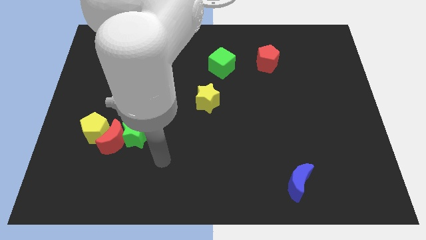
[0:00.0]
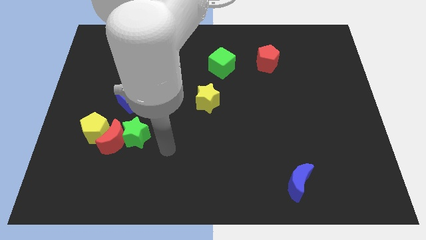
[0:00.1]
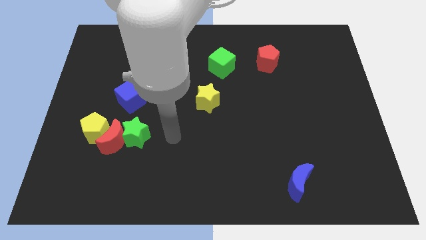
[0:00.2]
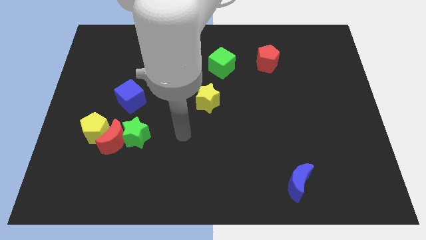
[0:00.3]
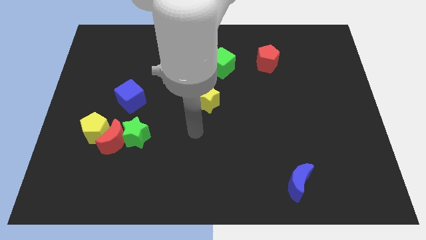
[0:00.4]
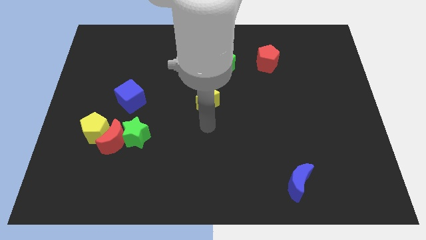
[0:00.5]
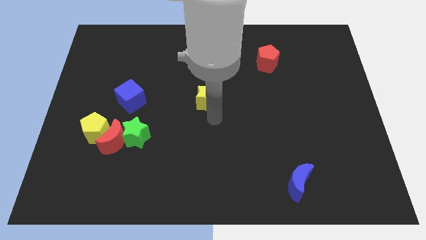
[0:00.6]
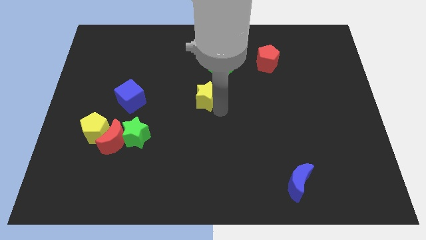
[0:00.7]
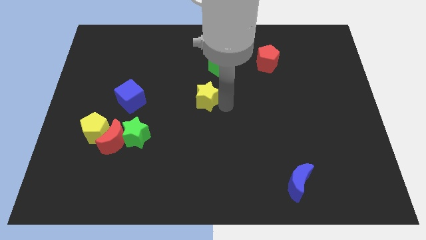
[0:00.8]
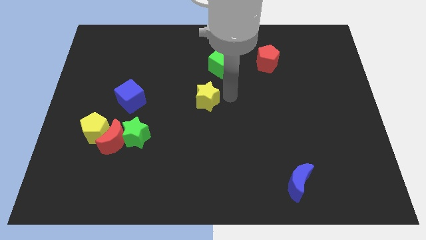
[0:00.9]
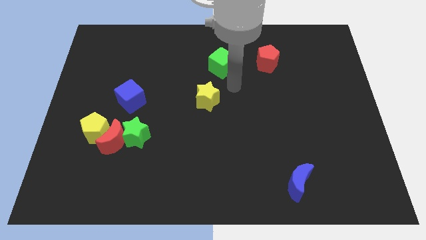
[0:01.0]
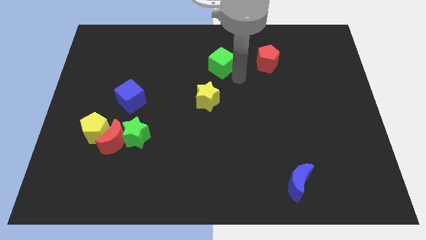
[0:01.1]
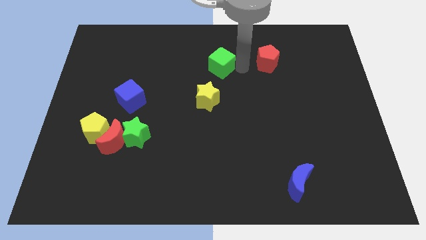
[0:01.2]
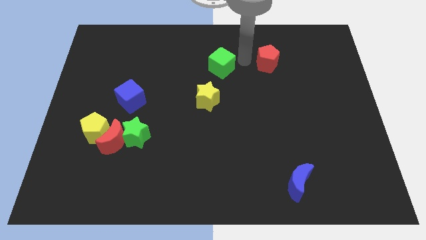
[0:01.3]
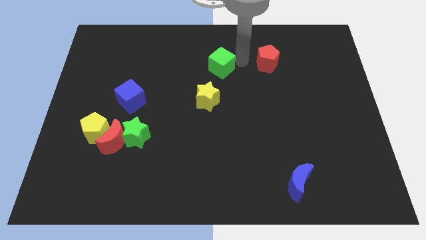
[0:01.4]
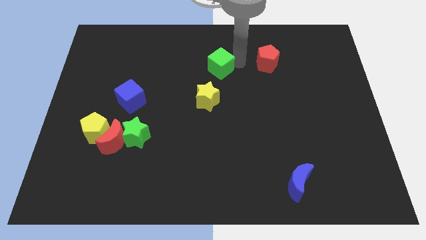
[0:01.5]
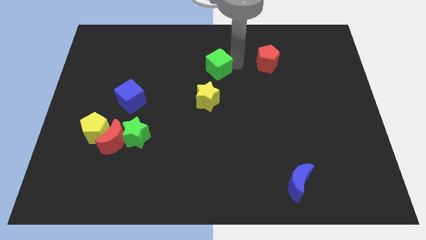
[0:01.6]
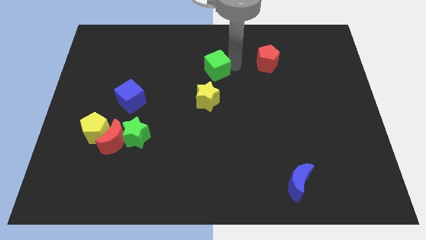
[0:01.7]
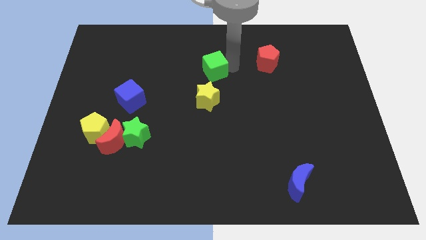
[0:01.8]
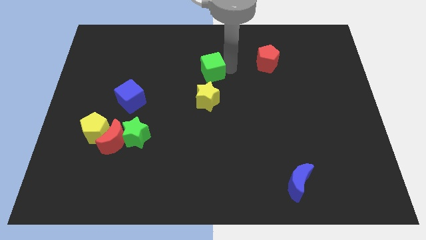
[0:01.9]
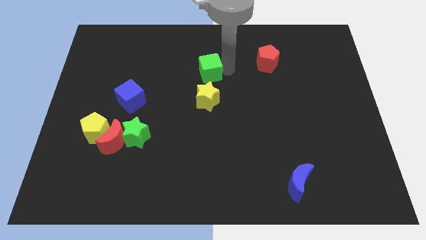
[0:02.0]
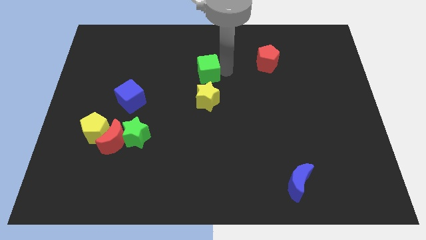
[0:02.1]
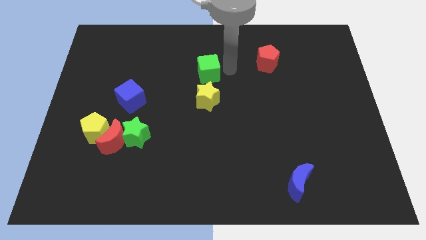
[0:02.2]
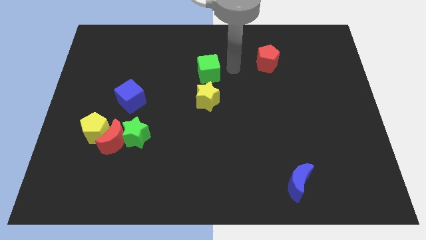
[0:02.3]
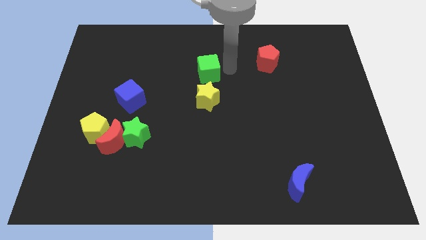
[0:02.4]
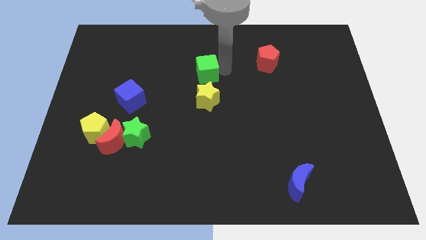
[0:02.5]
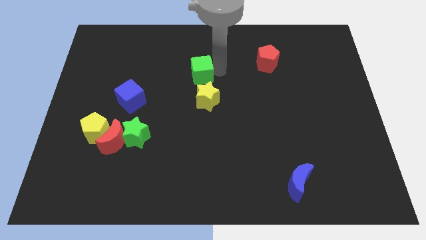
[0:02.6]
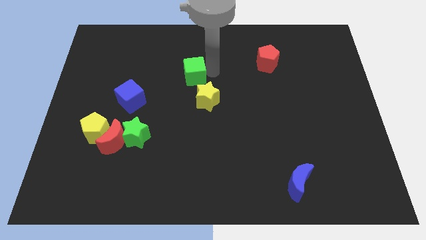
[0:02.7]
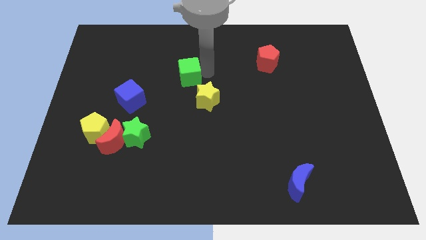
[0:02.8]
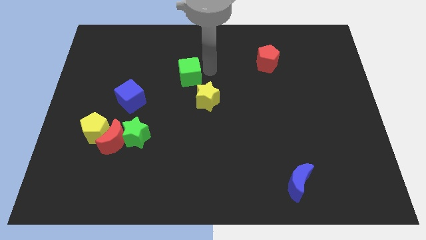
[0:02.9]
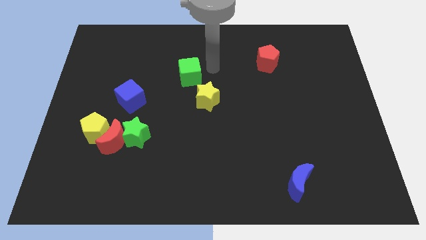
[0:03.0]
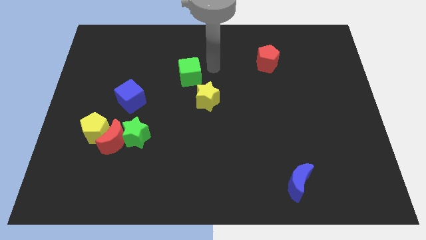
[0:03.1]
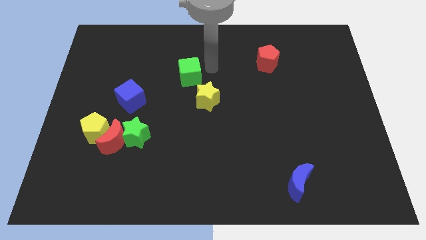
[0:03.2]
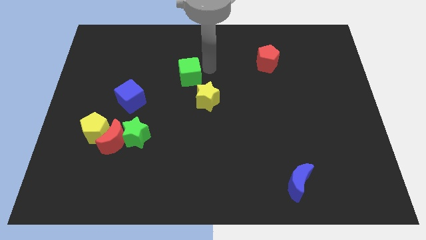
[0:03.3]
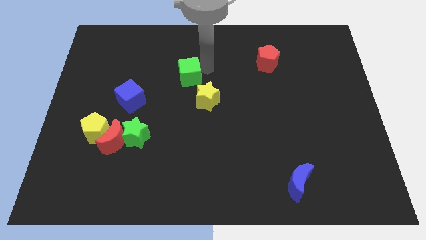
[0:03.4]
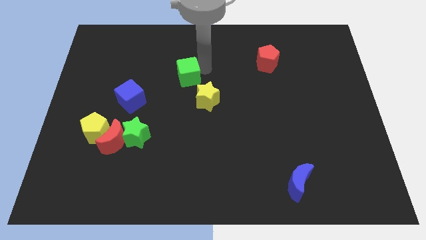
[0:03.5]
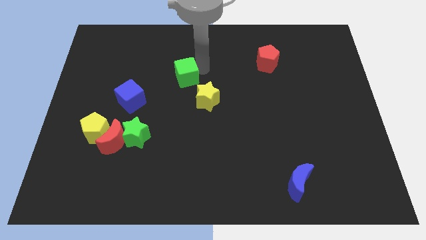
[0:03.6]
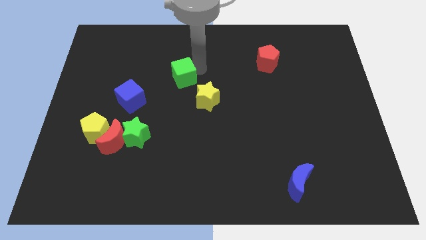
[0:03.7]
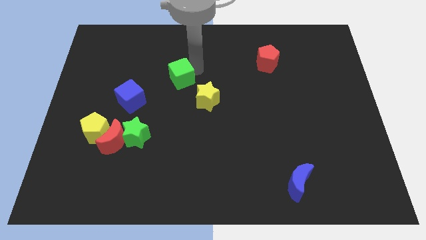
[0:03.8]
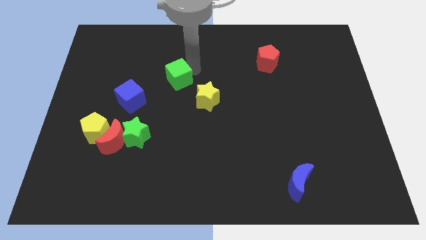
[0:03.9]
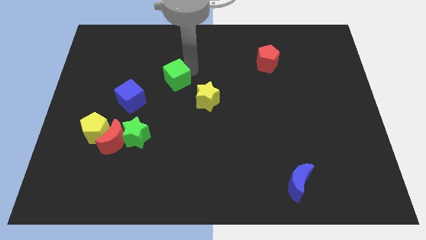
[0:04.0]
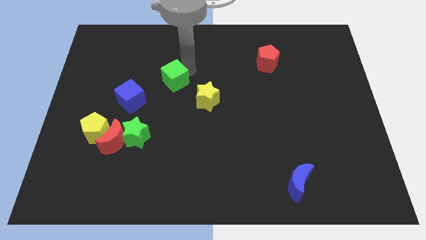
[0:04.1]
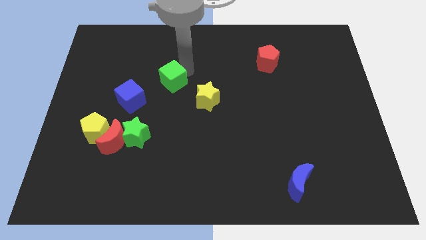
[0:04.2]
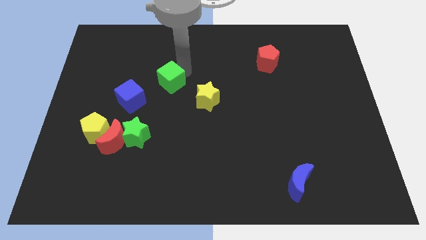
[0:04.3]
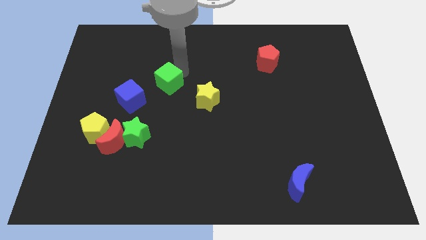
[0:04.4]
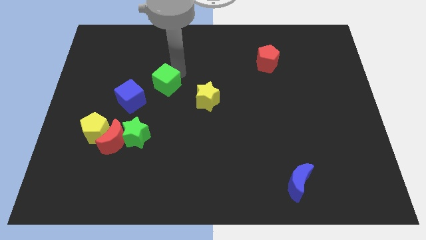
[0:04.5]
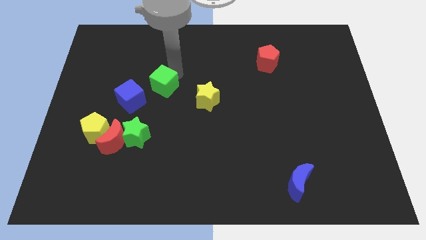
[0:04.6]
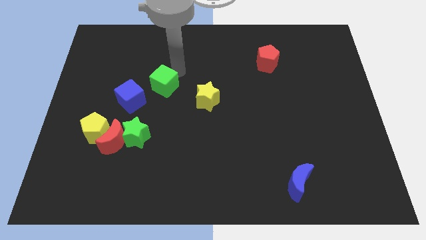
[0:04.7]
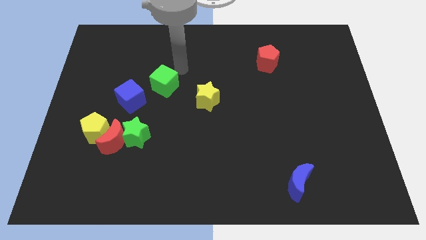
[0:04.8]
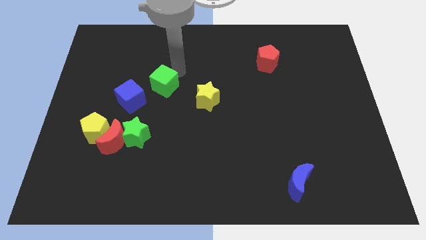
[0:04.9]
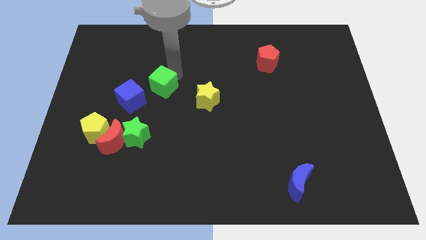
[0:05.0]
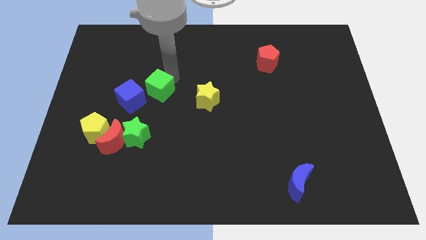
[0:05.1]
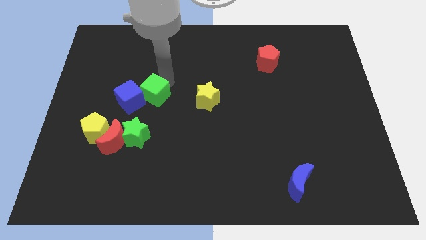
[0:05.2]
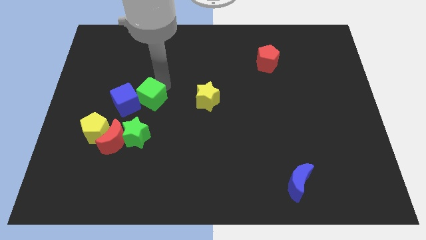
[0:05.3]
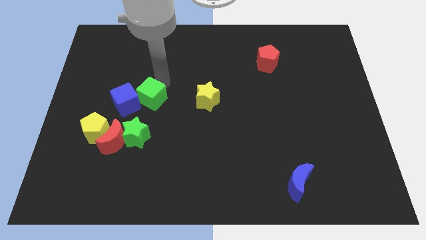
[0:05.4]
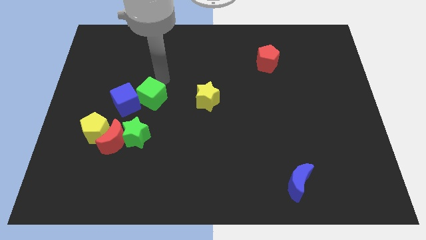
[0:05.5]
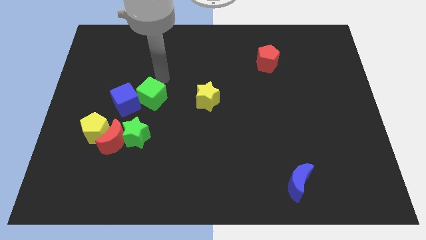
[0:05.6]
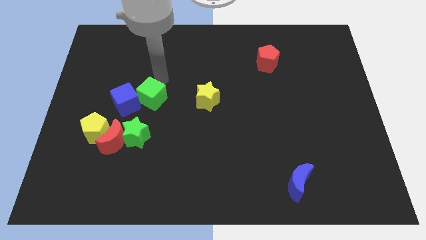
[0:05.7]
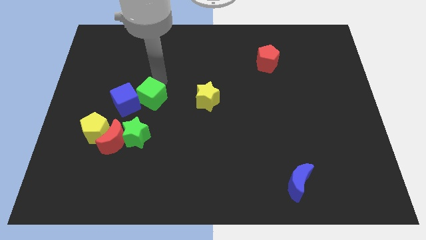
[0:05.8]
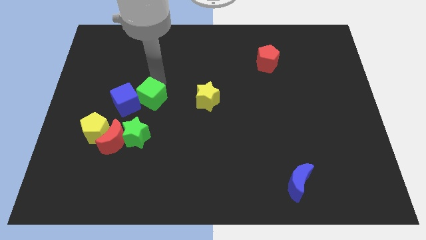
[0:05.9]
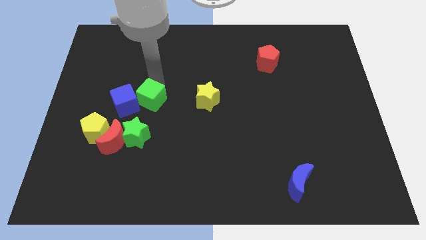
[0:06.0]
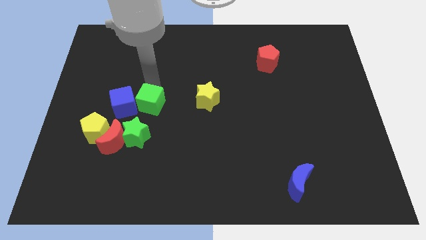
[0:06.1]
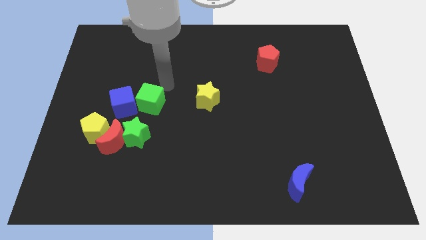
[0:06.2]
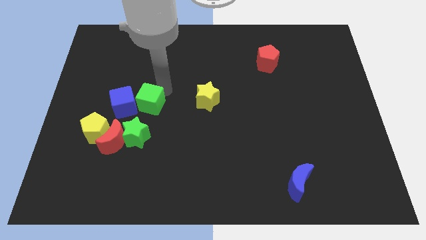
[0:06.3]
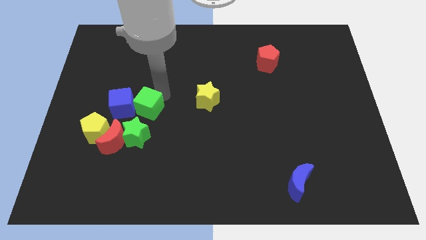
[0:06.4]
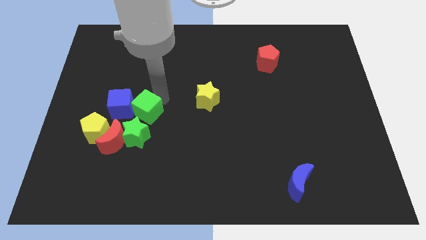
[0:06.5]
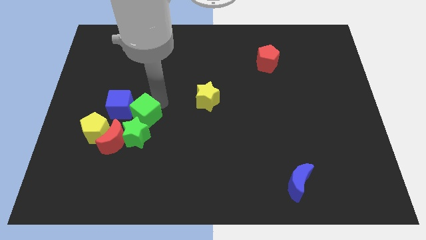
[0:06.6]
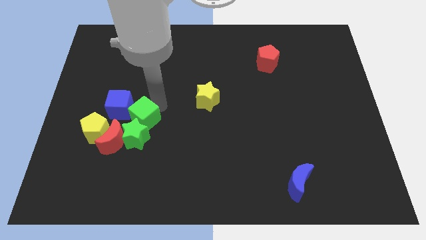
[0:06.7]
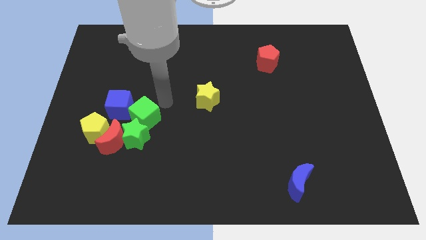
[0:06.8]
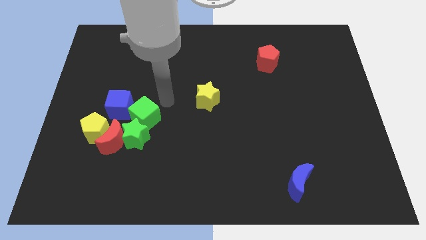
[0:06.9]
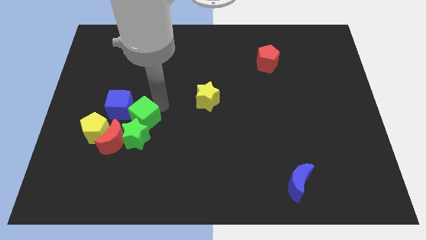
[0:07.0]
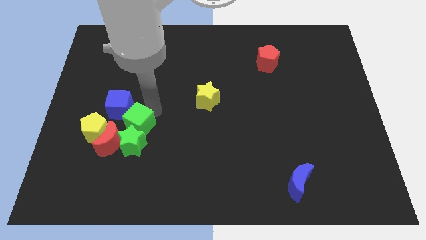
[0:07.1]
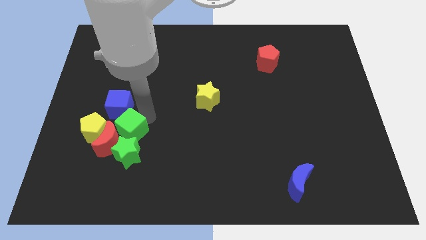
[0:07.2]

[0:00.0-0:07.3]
move the green cube towards the red moon
